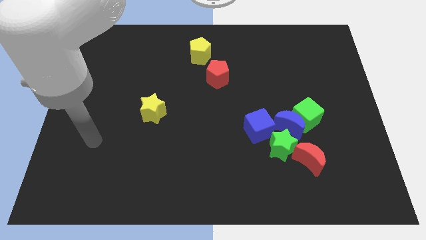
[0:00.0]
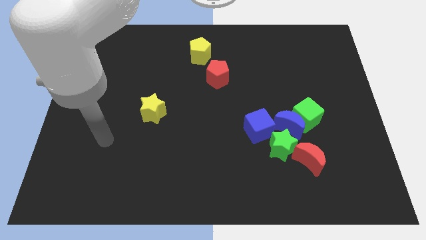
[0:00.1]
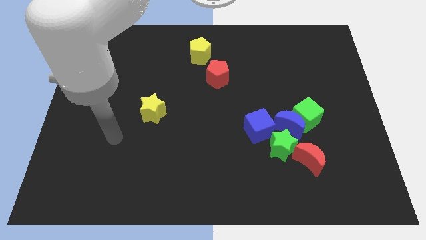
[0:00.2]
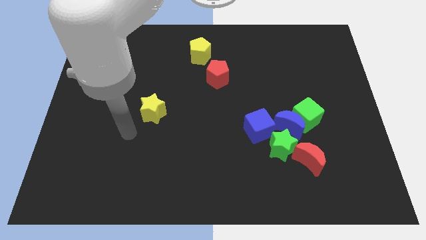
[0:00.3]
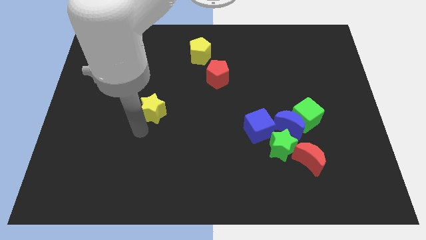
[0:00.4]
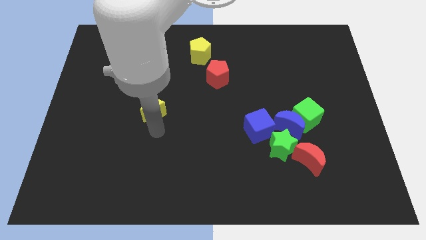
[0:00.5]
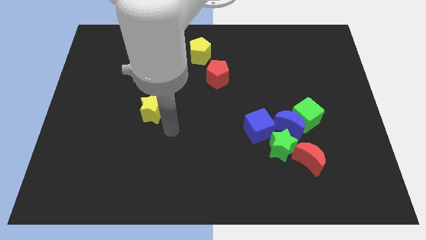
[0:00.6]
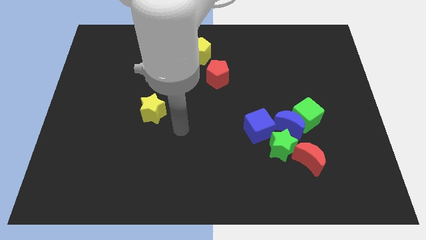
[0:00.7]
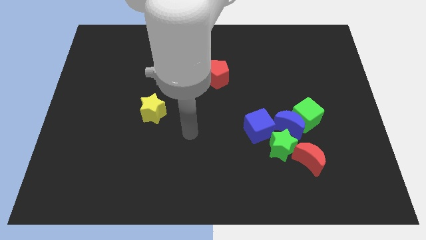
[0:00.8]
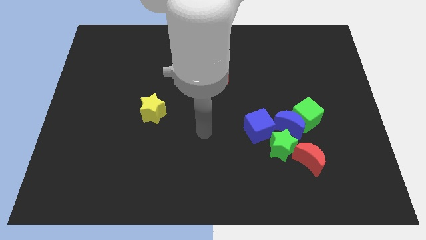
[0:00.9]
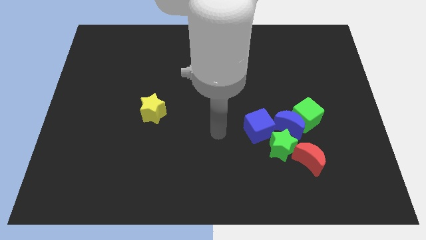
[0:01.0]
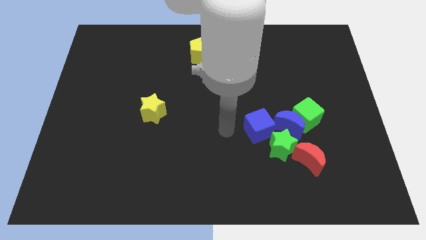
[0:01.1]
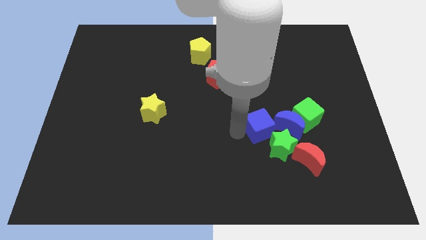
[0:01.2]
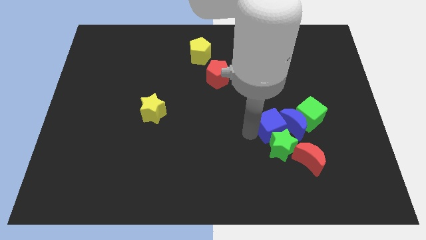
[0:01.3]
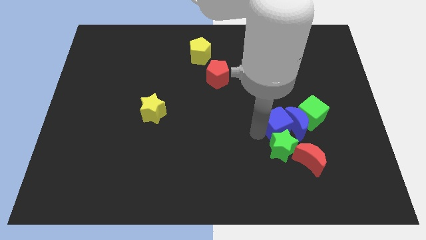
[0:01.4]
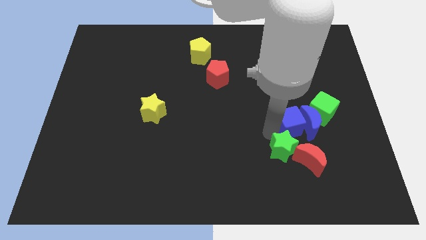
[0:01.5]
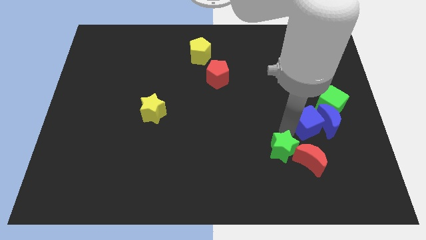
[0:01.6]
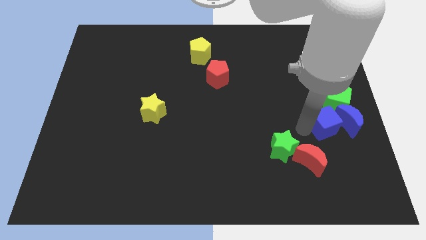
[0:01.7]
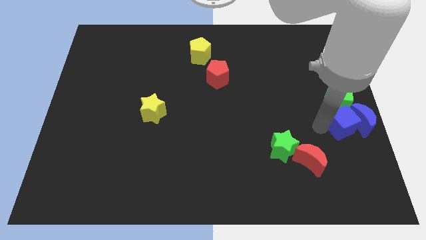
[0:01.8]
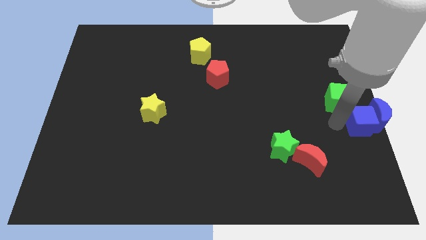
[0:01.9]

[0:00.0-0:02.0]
move the green cube away from the blue moon

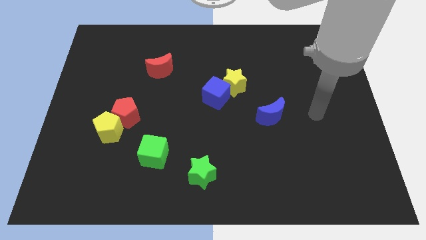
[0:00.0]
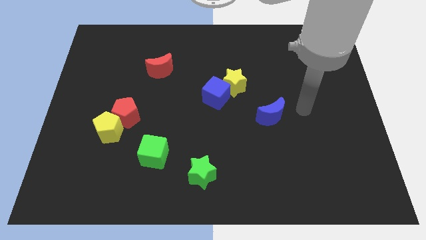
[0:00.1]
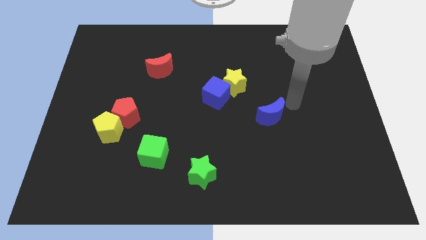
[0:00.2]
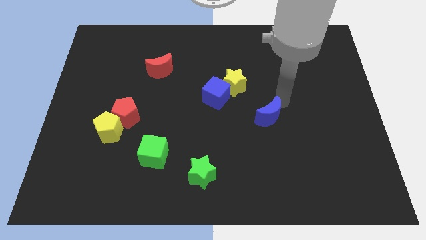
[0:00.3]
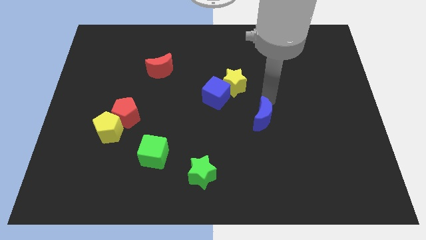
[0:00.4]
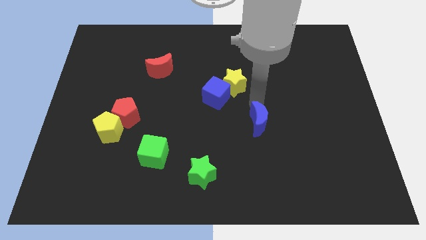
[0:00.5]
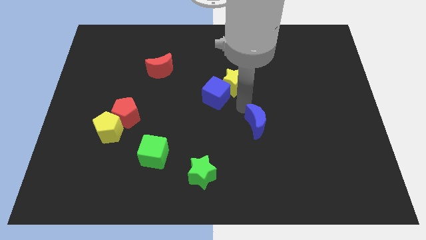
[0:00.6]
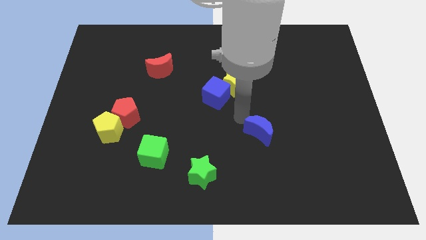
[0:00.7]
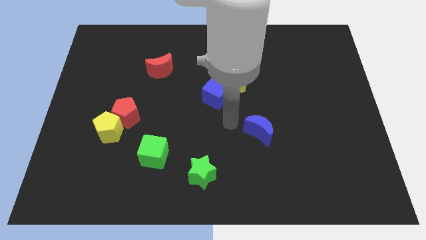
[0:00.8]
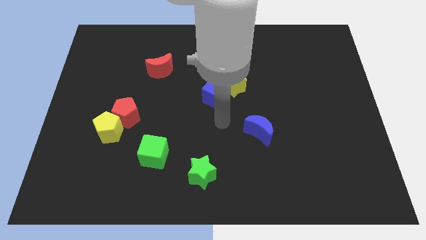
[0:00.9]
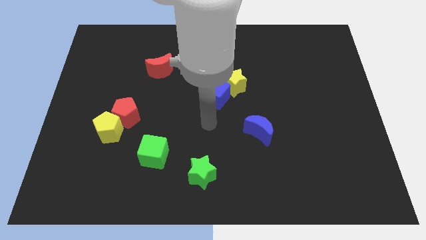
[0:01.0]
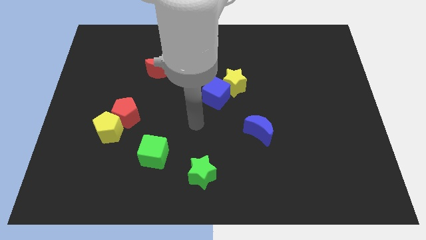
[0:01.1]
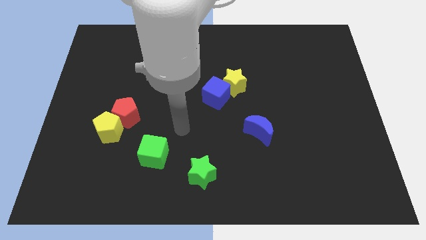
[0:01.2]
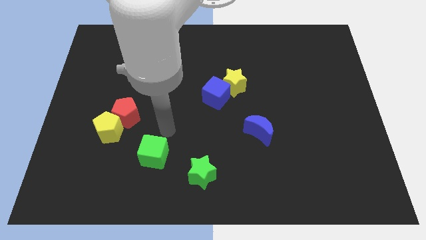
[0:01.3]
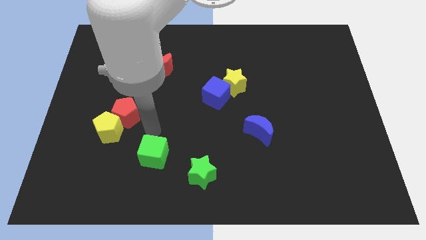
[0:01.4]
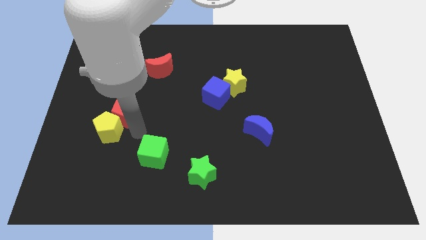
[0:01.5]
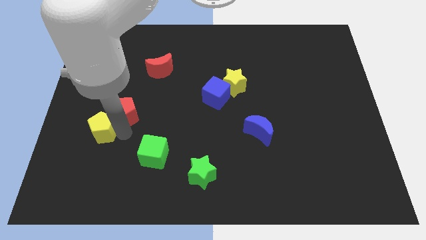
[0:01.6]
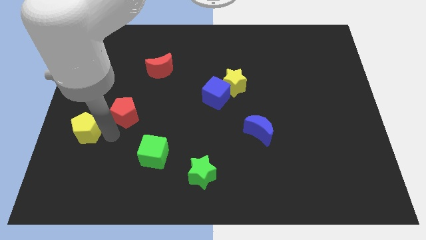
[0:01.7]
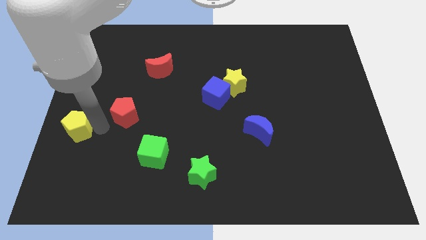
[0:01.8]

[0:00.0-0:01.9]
move the red pentagon away from the yellow pentagon

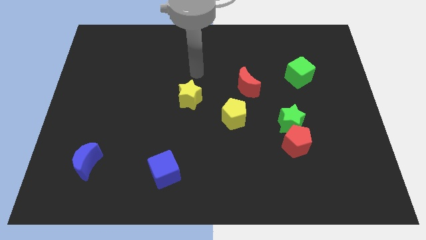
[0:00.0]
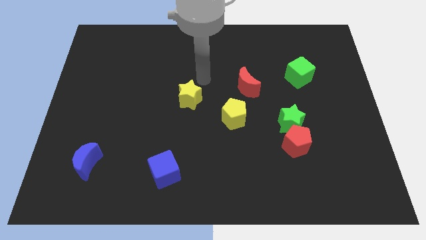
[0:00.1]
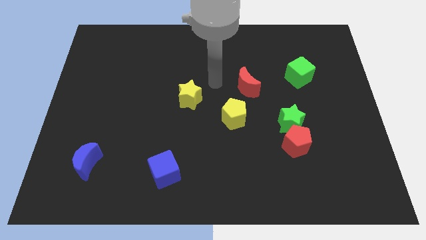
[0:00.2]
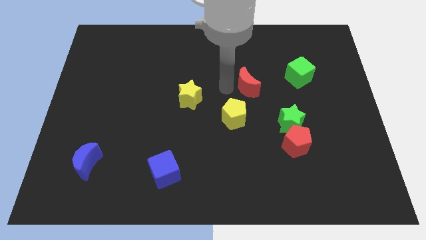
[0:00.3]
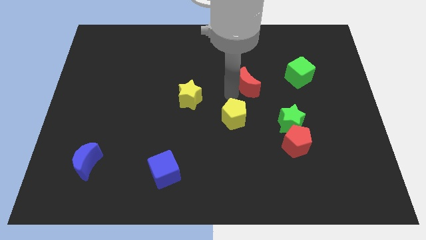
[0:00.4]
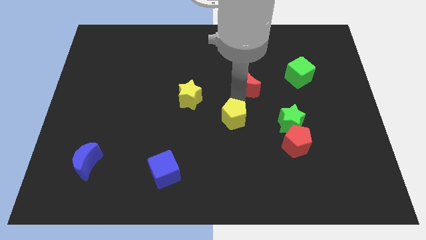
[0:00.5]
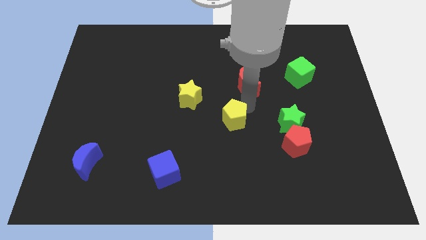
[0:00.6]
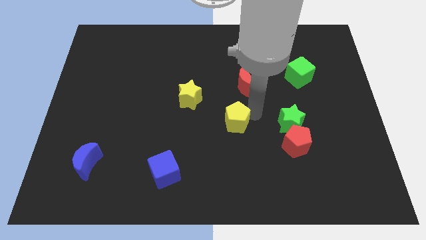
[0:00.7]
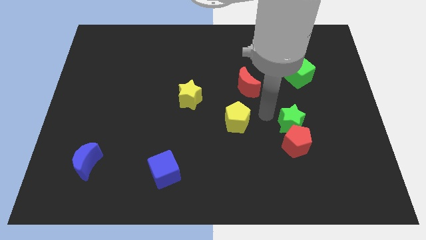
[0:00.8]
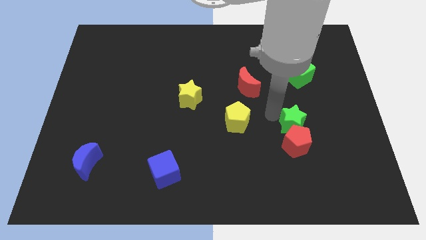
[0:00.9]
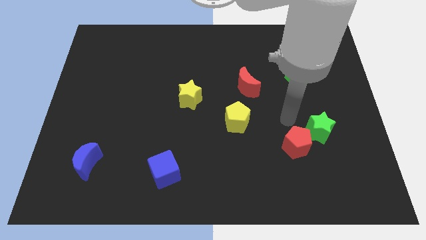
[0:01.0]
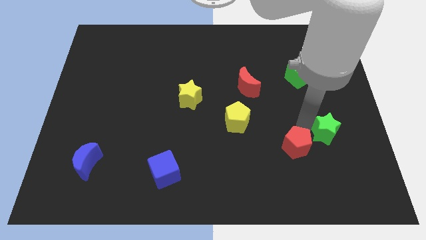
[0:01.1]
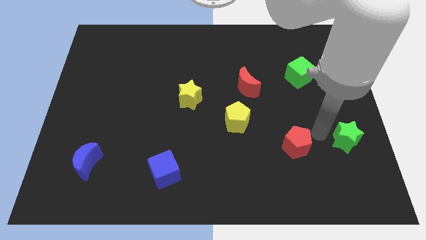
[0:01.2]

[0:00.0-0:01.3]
pull the red pentagon apart from the green star

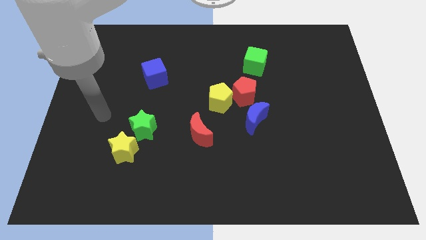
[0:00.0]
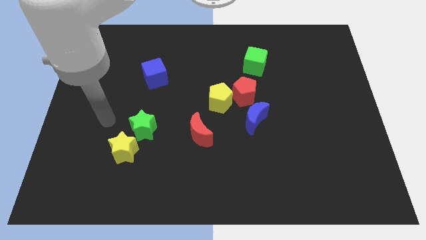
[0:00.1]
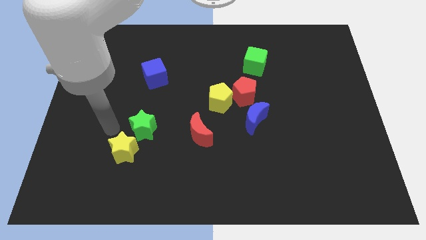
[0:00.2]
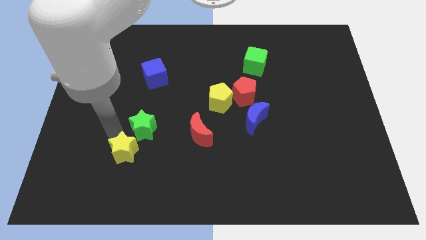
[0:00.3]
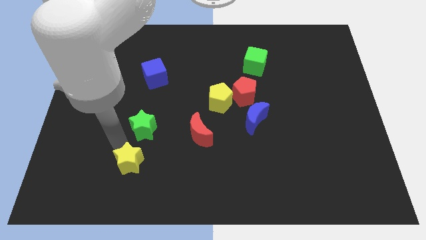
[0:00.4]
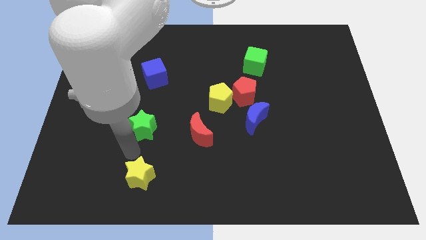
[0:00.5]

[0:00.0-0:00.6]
pull the green star apart from the yellow star

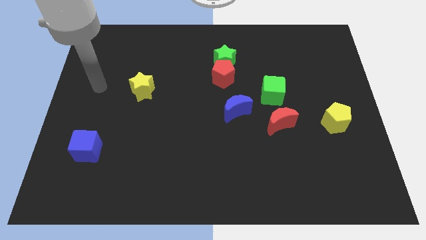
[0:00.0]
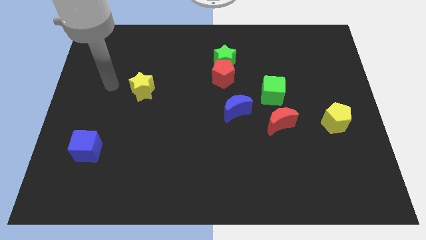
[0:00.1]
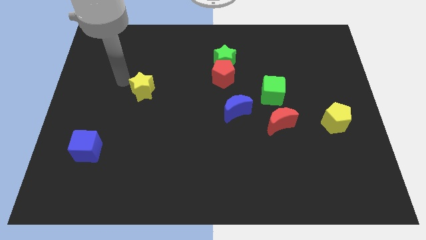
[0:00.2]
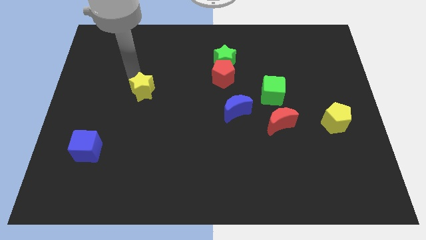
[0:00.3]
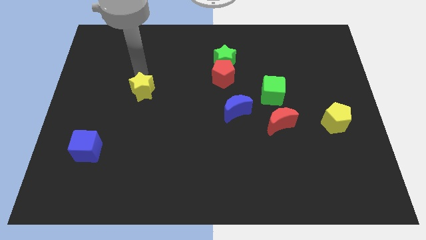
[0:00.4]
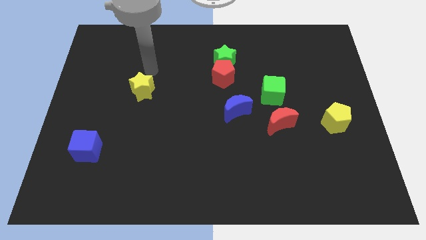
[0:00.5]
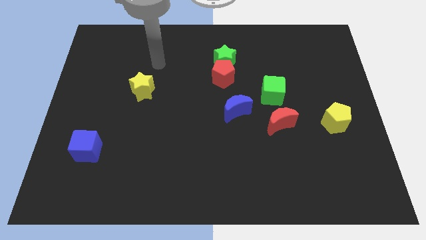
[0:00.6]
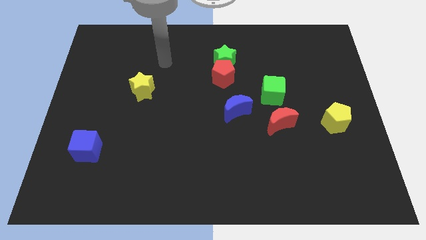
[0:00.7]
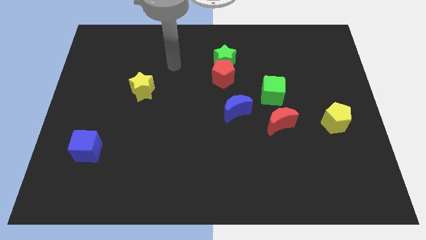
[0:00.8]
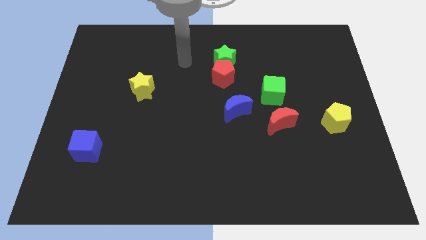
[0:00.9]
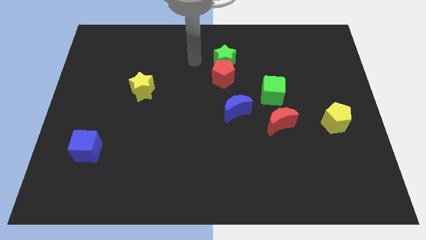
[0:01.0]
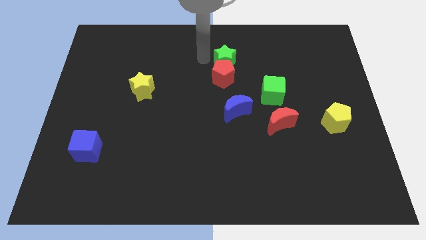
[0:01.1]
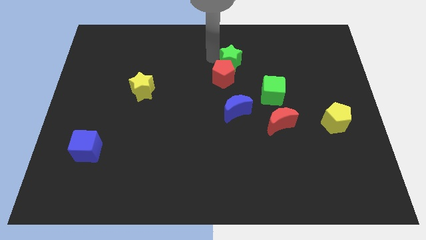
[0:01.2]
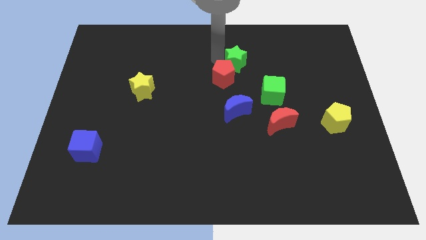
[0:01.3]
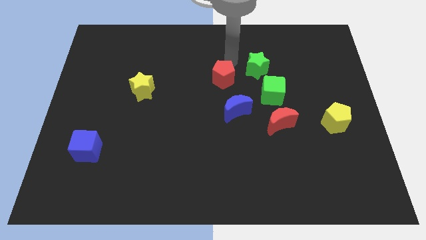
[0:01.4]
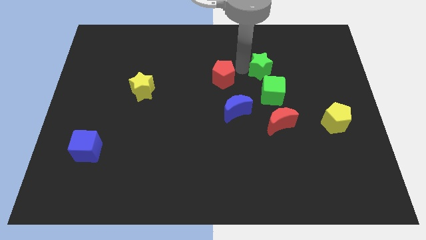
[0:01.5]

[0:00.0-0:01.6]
move the red pentagon away from the green star

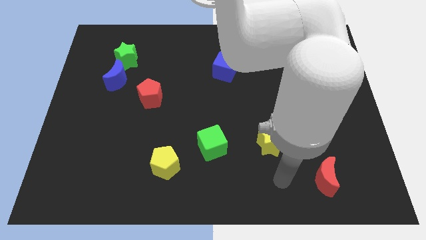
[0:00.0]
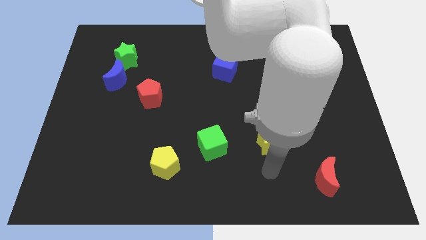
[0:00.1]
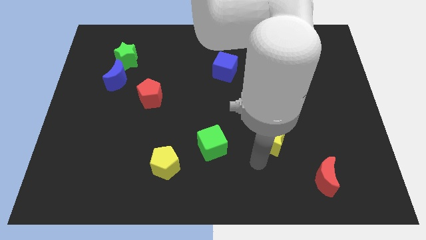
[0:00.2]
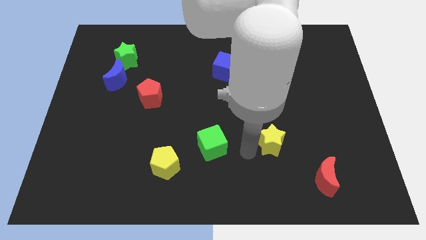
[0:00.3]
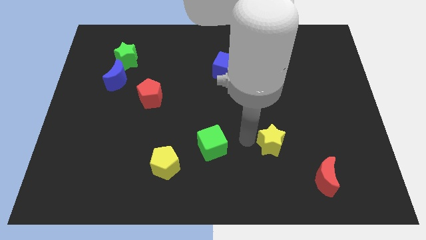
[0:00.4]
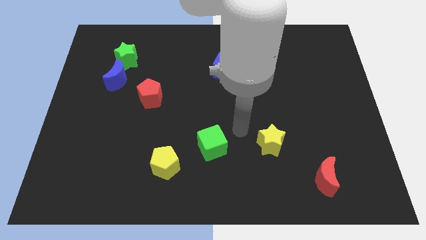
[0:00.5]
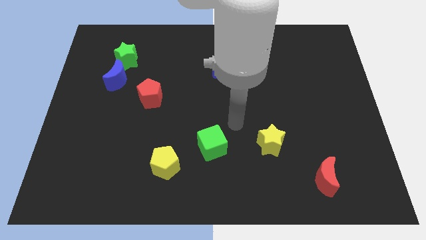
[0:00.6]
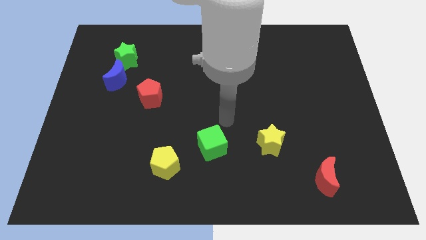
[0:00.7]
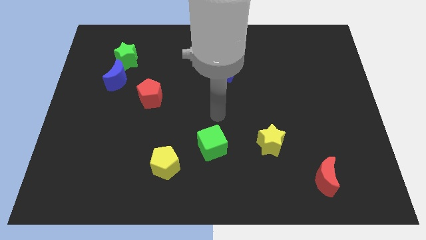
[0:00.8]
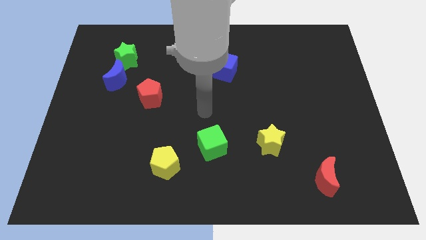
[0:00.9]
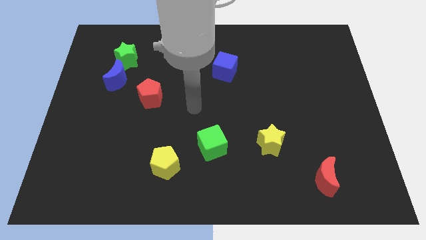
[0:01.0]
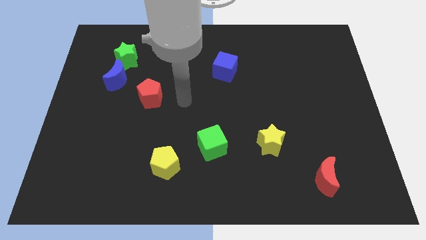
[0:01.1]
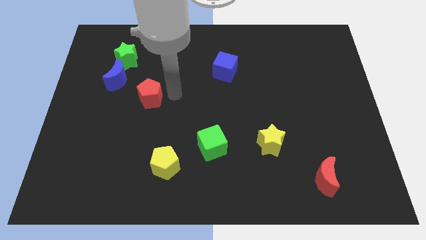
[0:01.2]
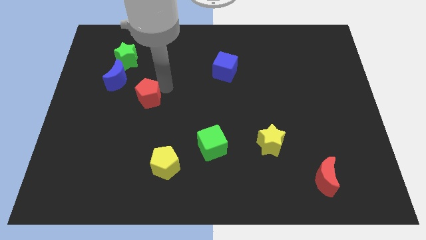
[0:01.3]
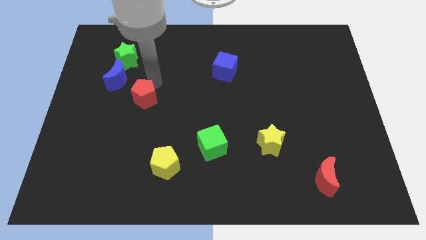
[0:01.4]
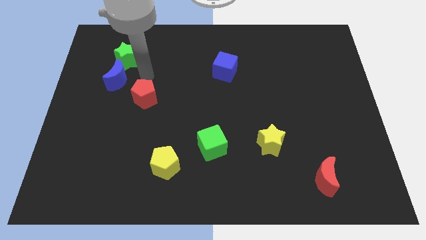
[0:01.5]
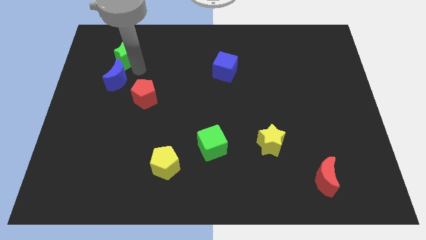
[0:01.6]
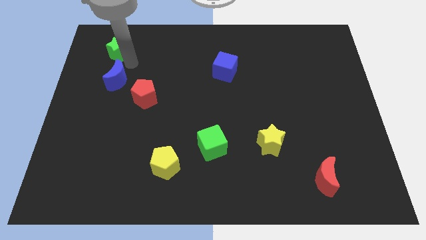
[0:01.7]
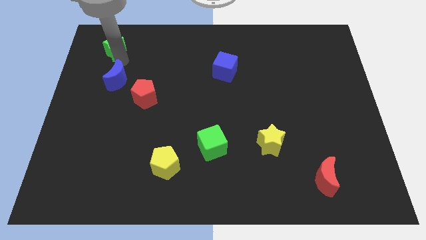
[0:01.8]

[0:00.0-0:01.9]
move the blue moon away from the green star

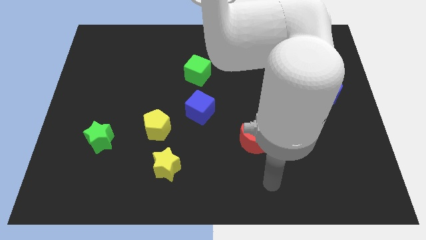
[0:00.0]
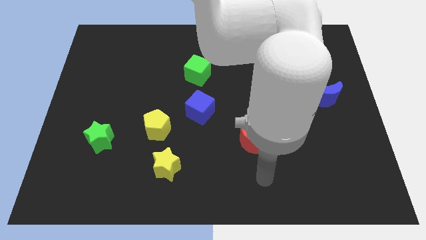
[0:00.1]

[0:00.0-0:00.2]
move the yellow star away from the yellow pentagon

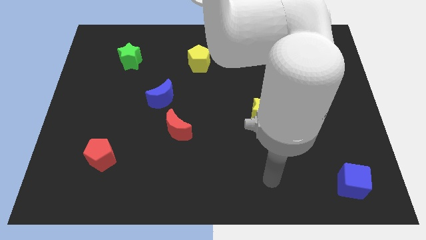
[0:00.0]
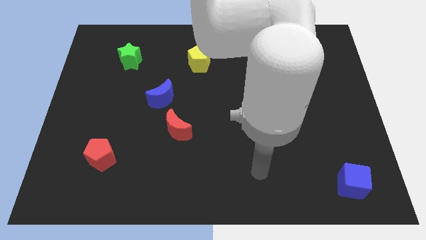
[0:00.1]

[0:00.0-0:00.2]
pull the red moon apart from the blue moon
